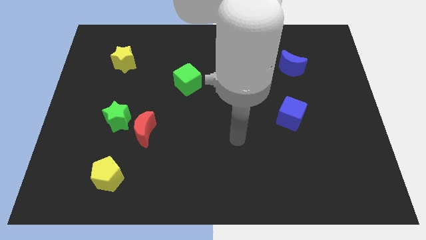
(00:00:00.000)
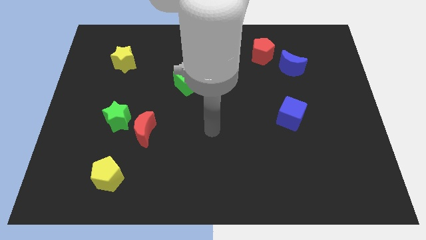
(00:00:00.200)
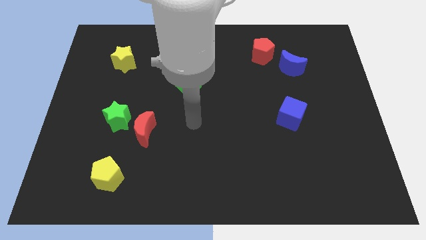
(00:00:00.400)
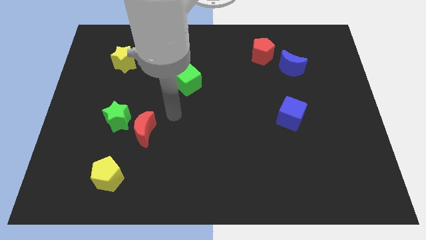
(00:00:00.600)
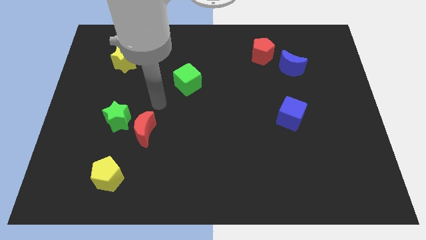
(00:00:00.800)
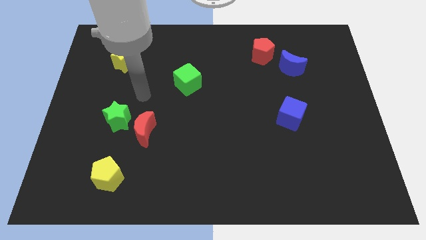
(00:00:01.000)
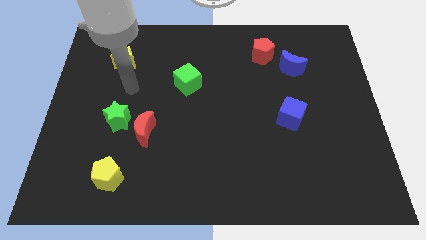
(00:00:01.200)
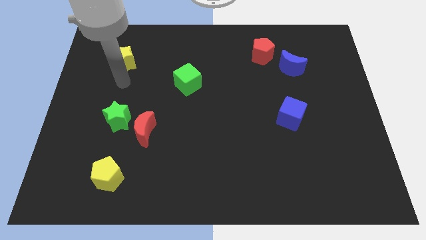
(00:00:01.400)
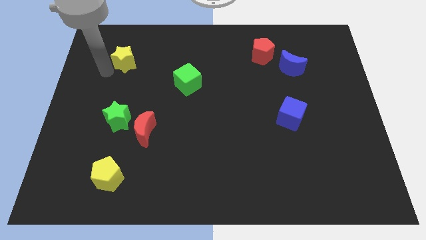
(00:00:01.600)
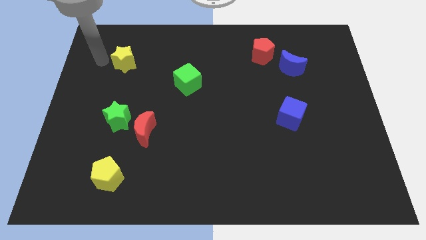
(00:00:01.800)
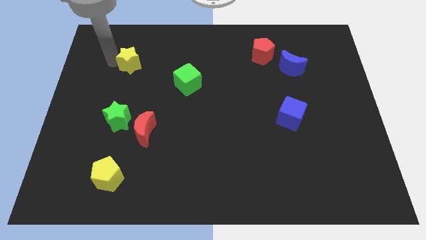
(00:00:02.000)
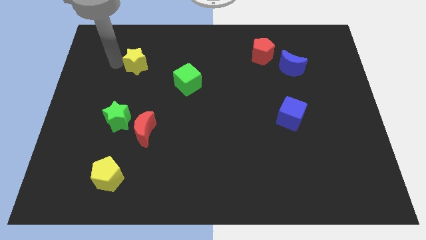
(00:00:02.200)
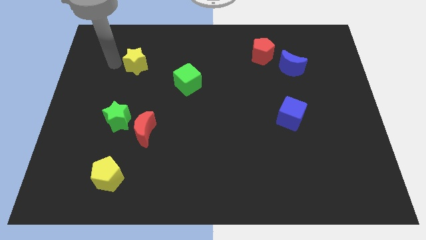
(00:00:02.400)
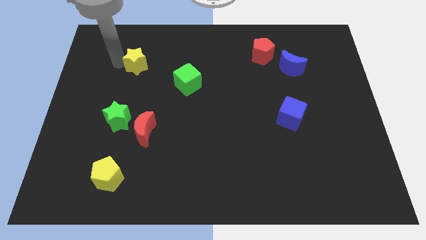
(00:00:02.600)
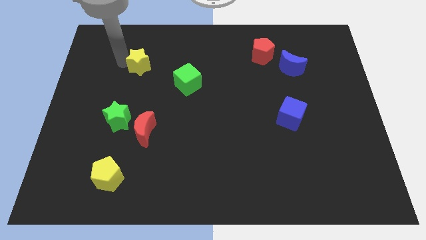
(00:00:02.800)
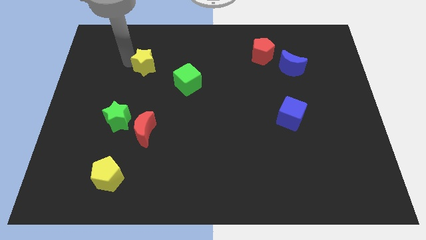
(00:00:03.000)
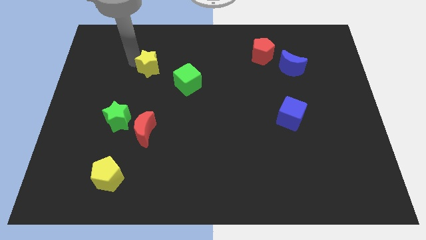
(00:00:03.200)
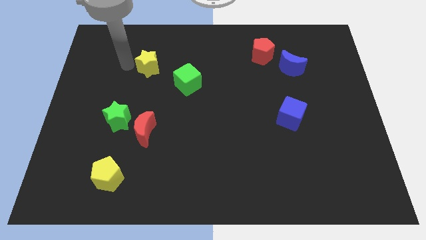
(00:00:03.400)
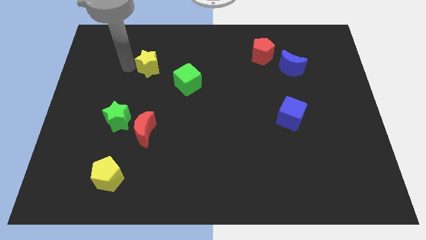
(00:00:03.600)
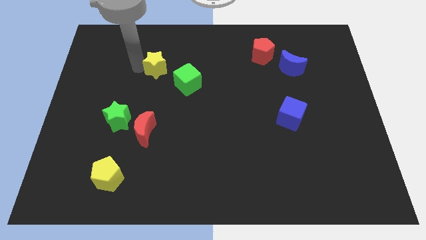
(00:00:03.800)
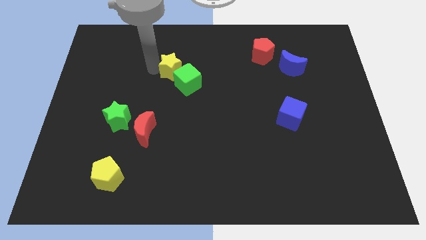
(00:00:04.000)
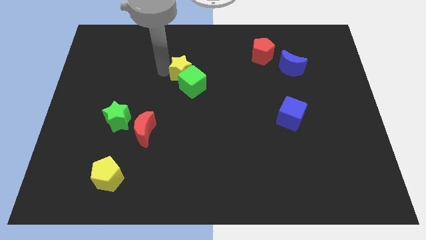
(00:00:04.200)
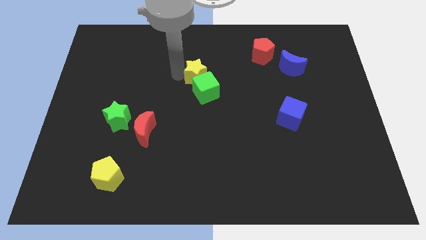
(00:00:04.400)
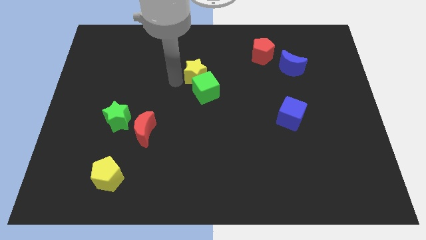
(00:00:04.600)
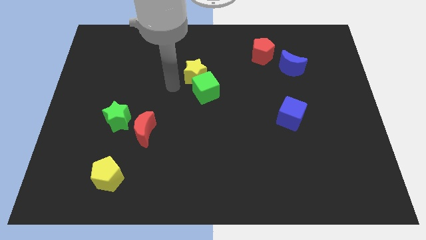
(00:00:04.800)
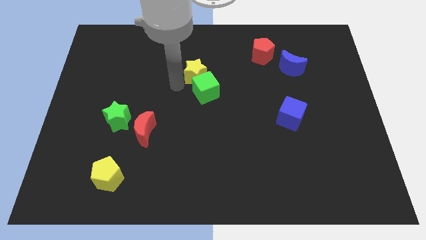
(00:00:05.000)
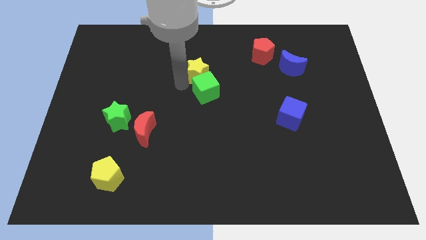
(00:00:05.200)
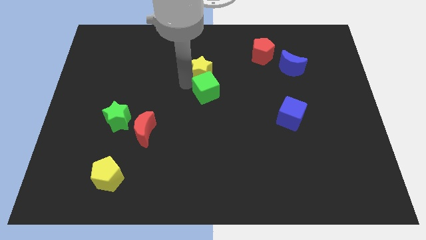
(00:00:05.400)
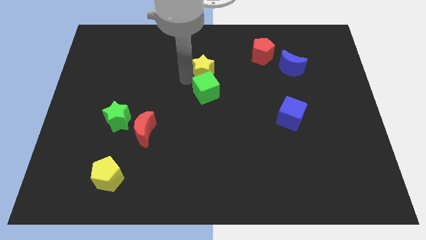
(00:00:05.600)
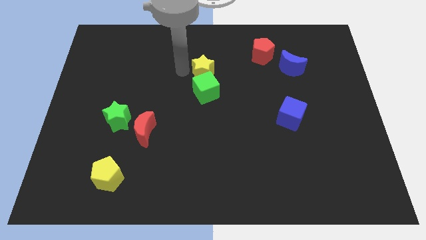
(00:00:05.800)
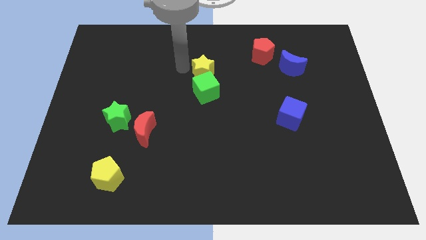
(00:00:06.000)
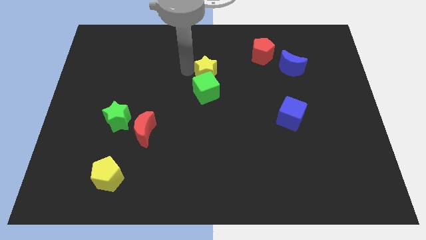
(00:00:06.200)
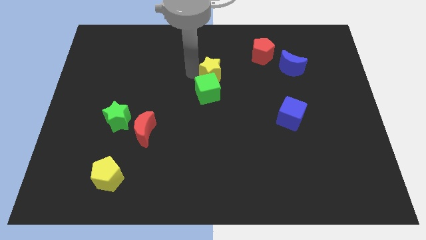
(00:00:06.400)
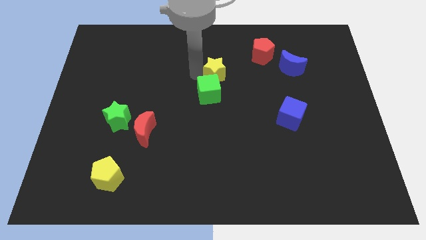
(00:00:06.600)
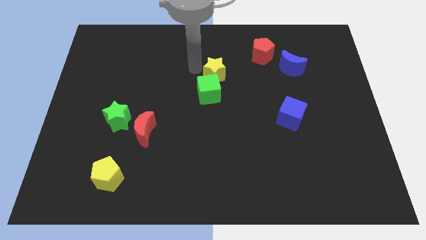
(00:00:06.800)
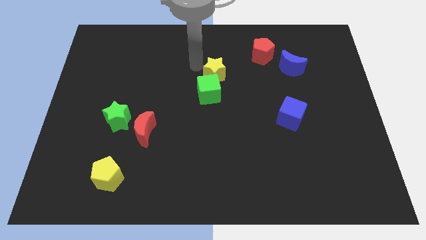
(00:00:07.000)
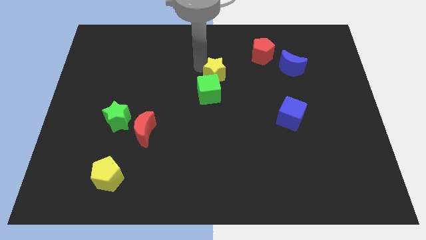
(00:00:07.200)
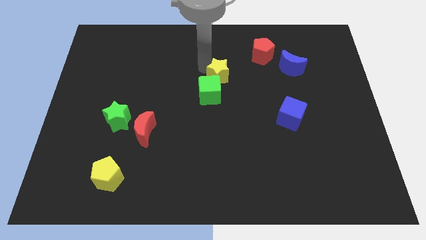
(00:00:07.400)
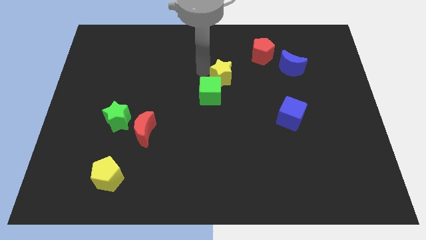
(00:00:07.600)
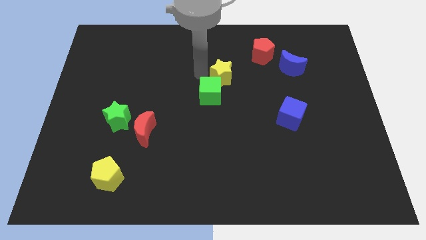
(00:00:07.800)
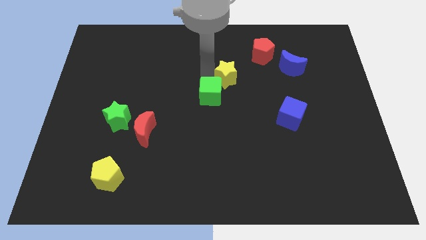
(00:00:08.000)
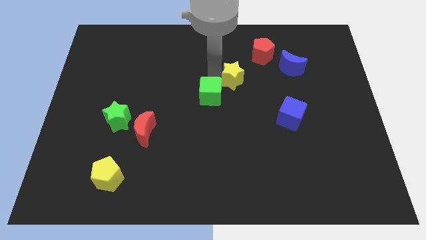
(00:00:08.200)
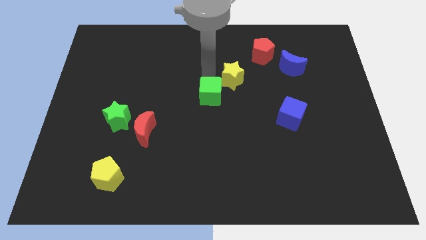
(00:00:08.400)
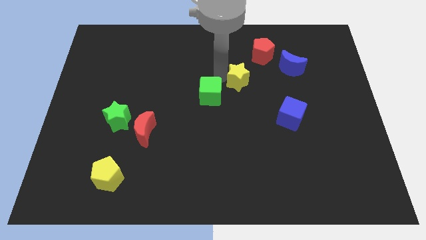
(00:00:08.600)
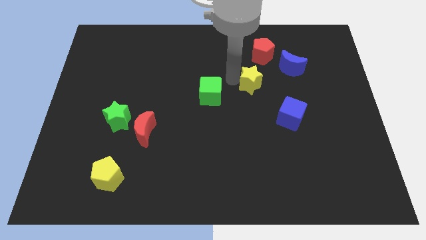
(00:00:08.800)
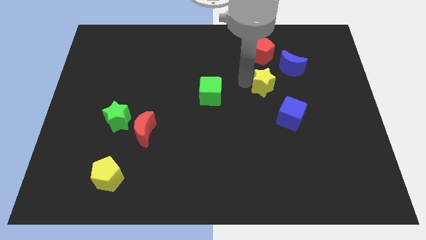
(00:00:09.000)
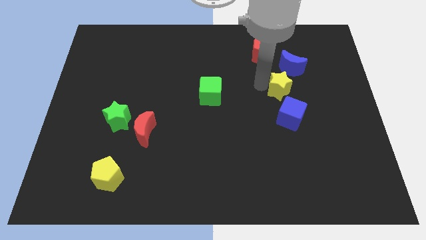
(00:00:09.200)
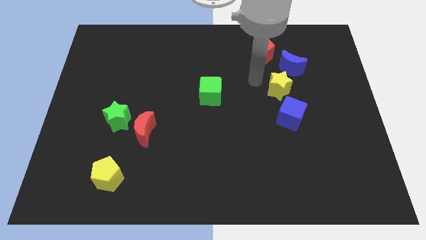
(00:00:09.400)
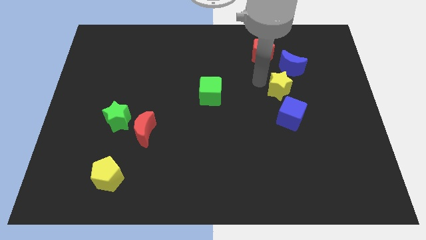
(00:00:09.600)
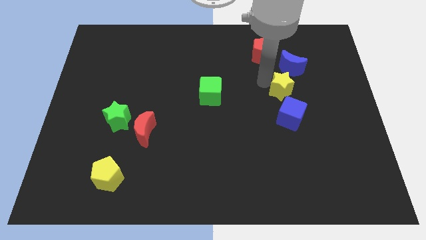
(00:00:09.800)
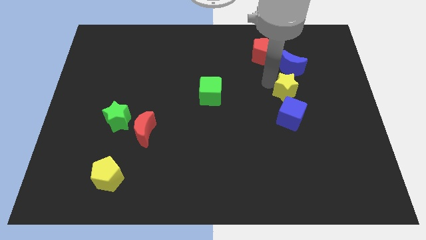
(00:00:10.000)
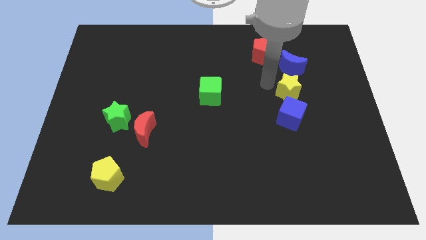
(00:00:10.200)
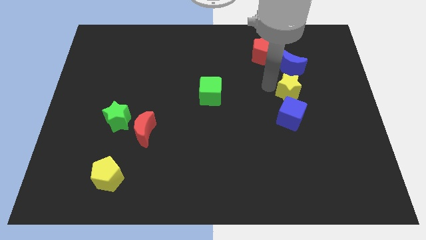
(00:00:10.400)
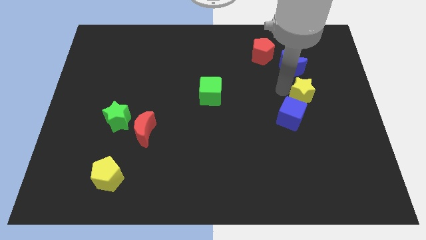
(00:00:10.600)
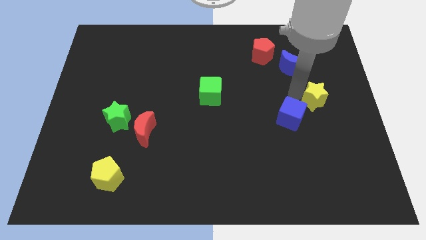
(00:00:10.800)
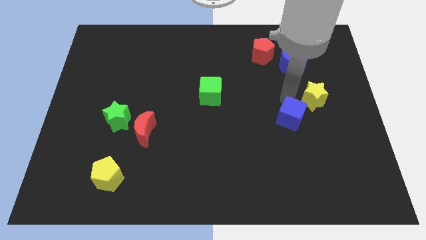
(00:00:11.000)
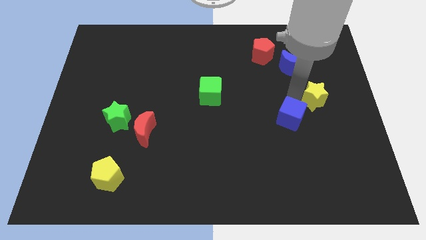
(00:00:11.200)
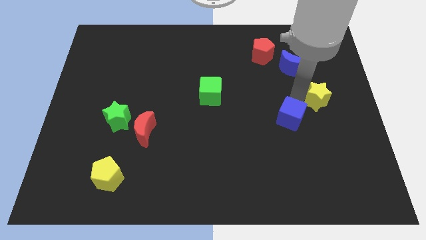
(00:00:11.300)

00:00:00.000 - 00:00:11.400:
move the yellow star to the right side
